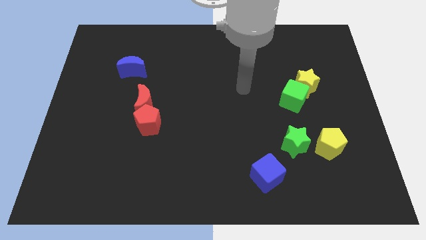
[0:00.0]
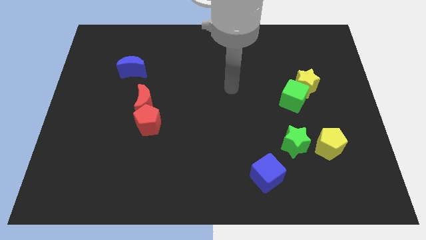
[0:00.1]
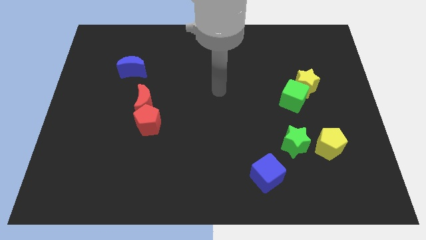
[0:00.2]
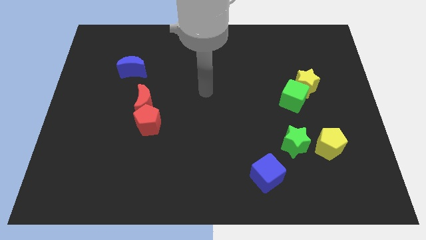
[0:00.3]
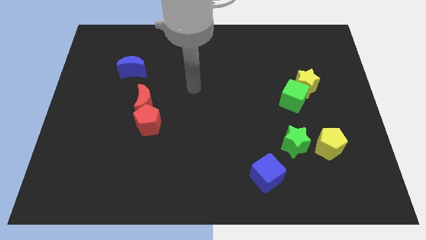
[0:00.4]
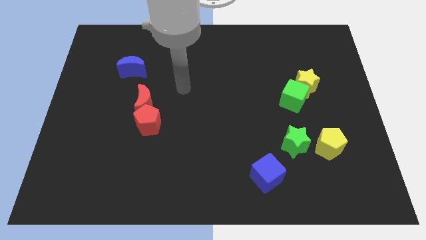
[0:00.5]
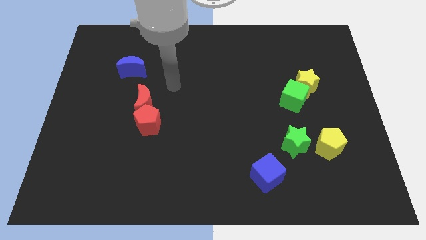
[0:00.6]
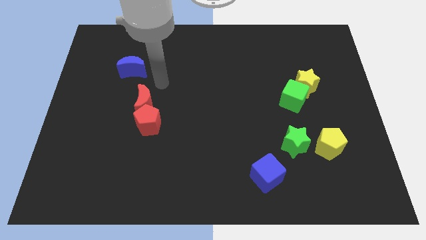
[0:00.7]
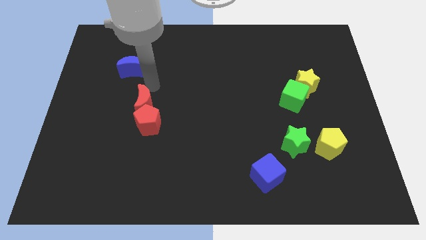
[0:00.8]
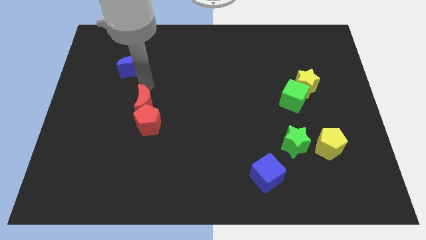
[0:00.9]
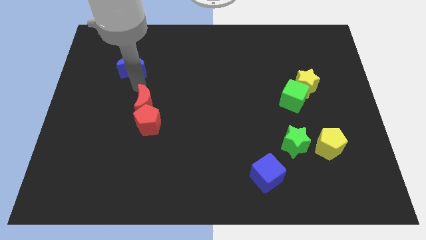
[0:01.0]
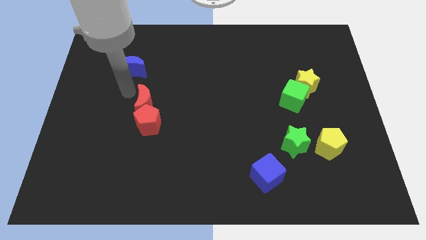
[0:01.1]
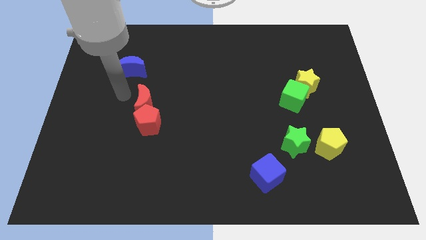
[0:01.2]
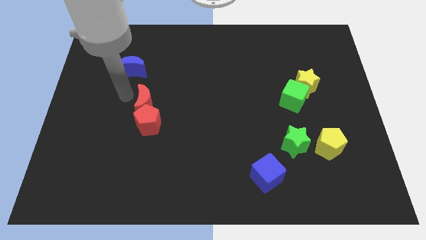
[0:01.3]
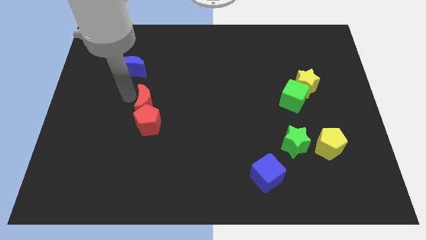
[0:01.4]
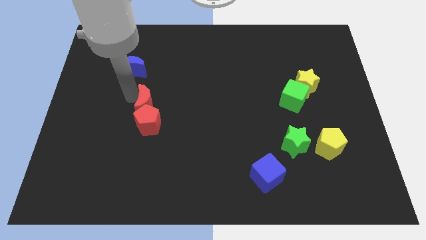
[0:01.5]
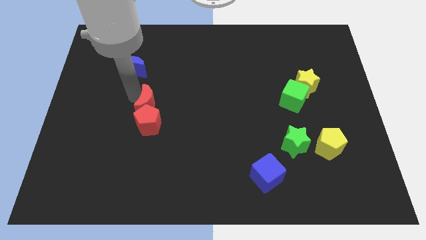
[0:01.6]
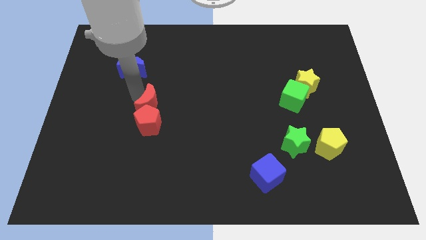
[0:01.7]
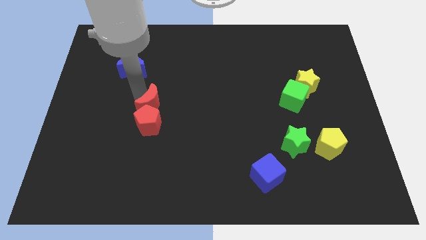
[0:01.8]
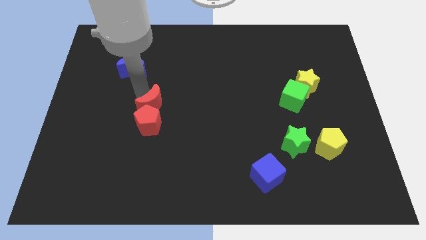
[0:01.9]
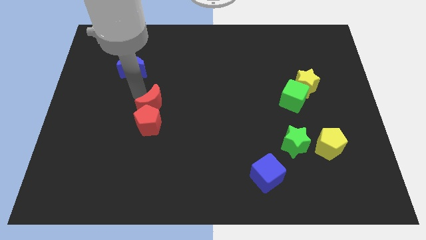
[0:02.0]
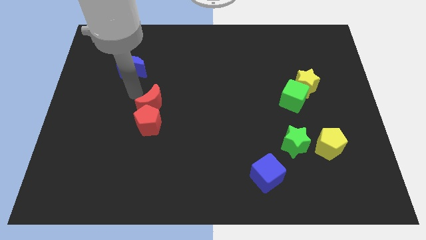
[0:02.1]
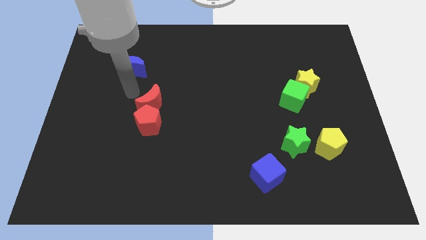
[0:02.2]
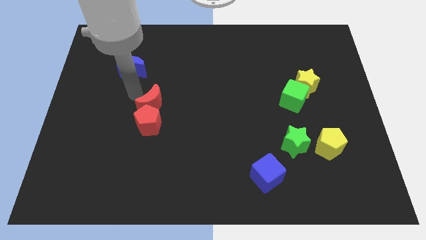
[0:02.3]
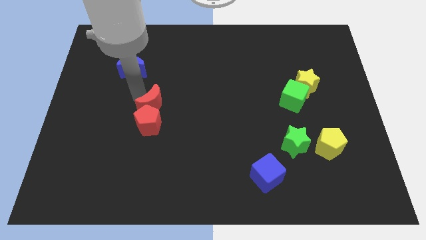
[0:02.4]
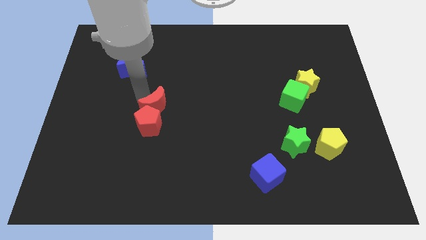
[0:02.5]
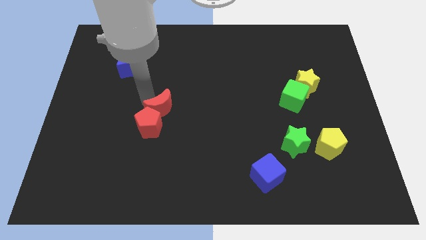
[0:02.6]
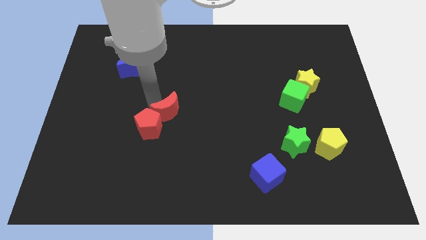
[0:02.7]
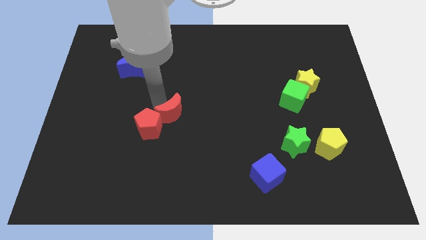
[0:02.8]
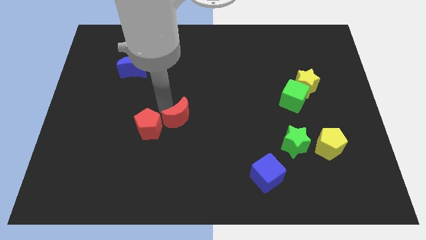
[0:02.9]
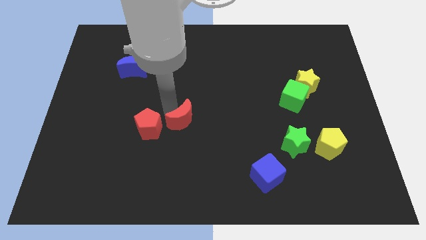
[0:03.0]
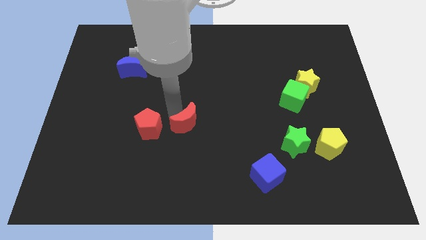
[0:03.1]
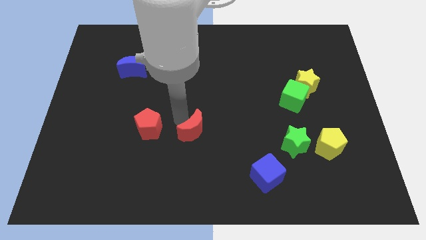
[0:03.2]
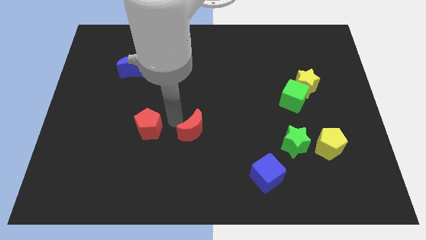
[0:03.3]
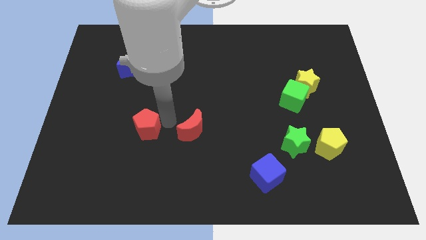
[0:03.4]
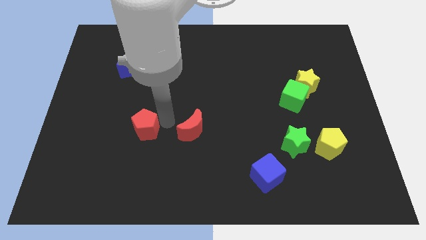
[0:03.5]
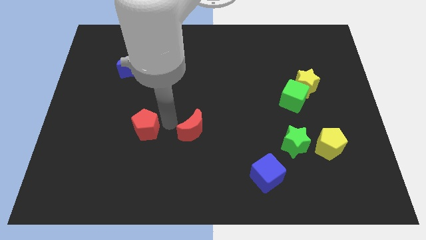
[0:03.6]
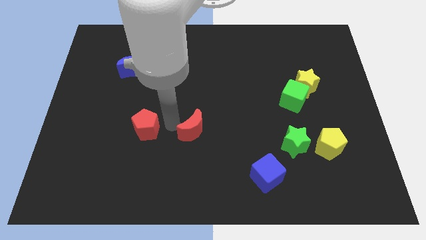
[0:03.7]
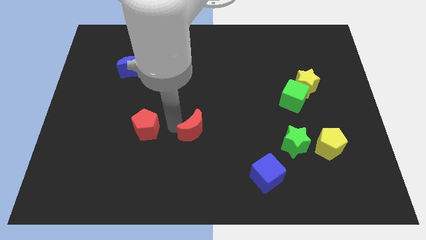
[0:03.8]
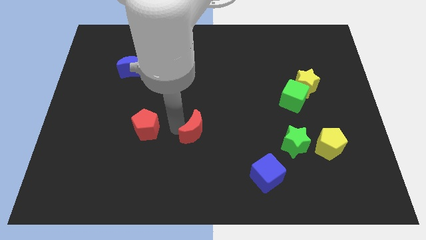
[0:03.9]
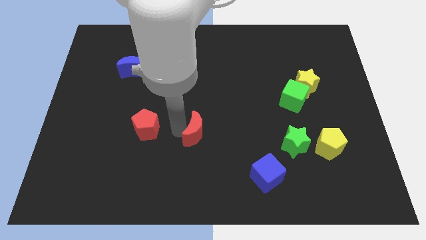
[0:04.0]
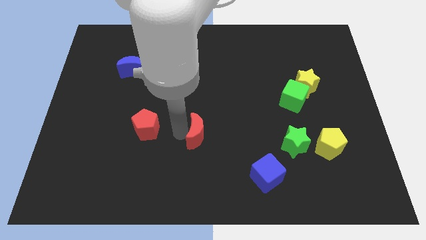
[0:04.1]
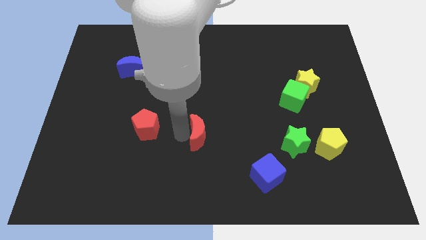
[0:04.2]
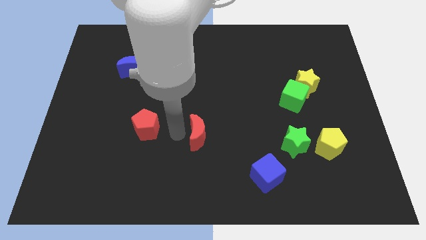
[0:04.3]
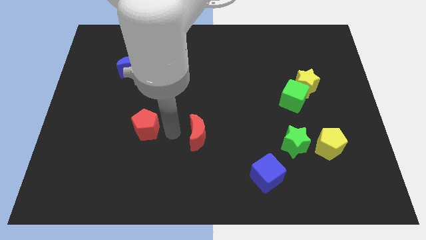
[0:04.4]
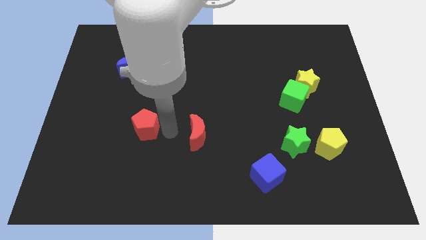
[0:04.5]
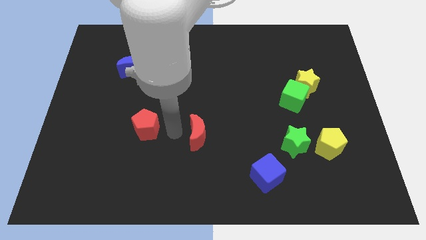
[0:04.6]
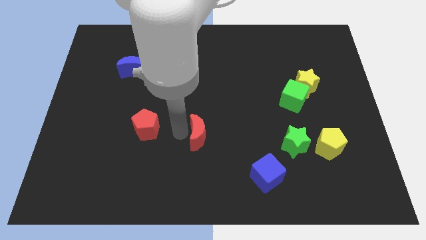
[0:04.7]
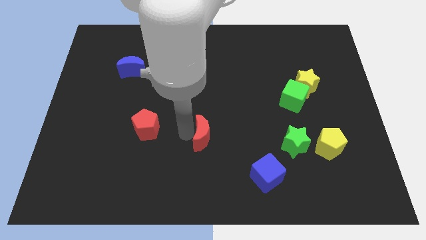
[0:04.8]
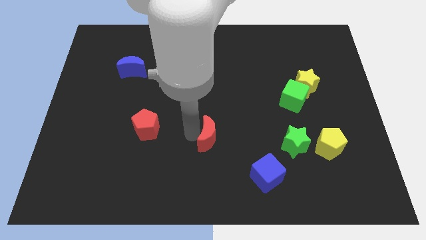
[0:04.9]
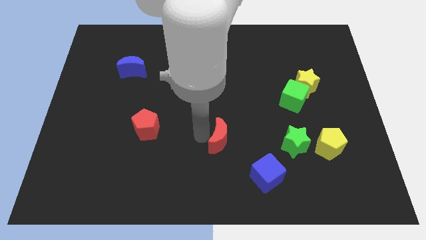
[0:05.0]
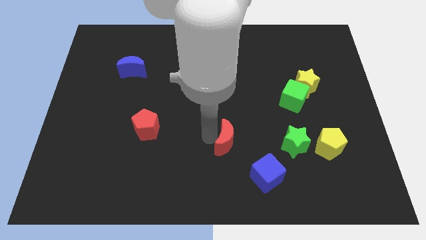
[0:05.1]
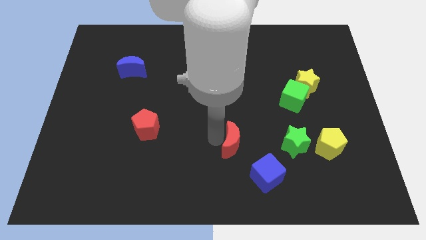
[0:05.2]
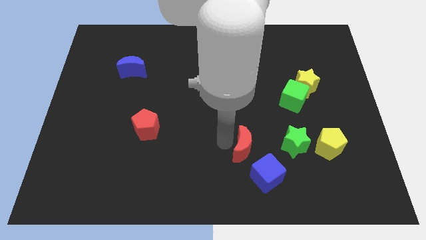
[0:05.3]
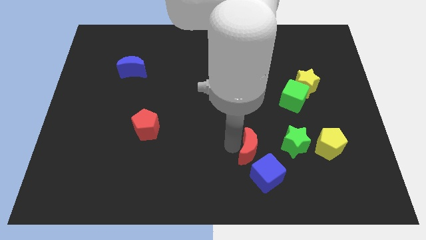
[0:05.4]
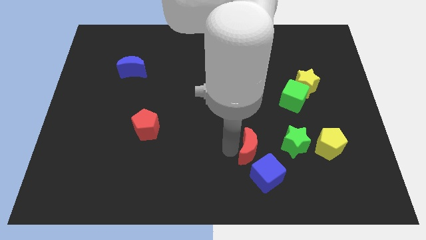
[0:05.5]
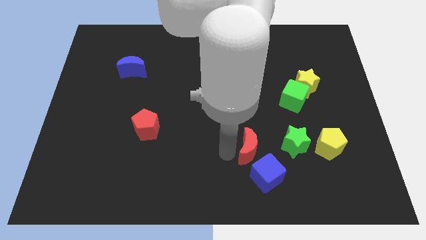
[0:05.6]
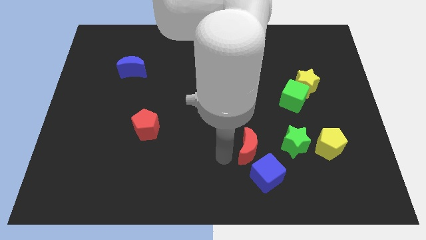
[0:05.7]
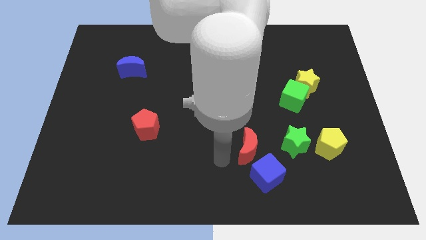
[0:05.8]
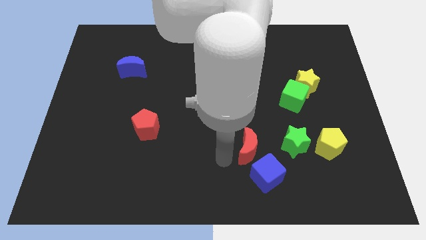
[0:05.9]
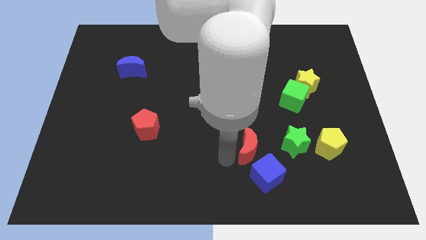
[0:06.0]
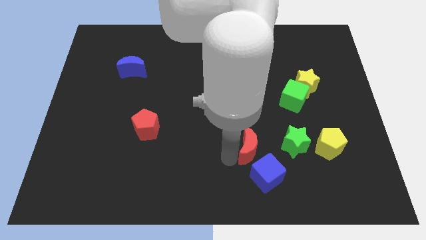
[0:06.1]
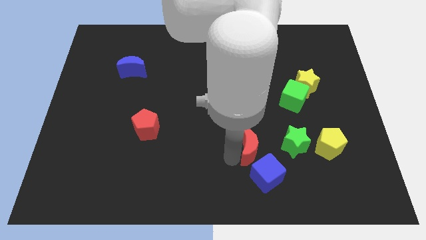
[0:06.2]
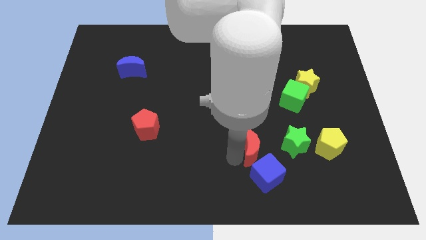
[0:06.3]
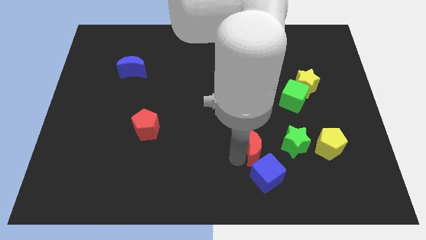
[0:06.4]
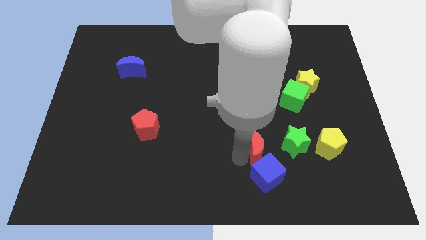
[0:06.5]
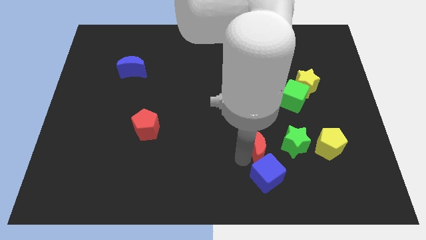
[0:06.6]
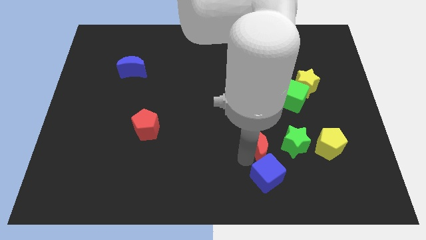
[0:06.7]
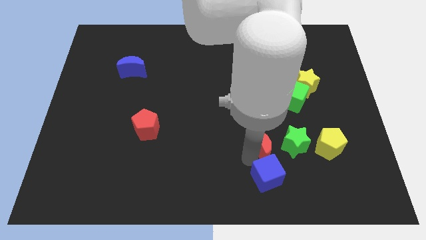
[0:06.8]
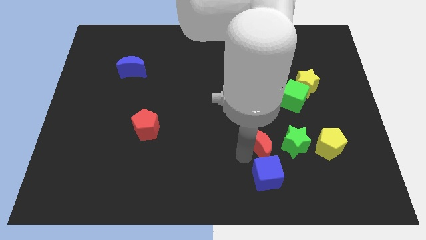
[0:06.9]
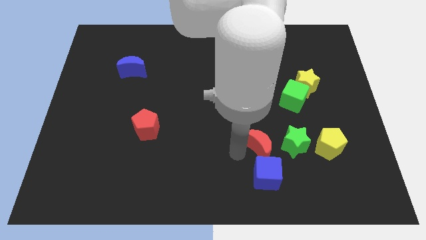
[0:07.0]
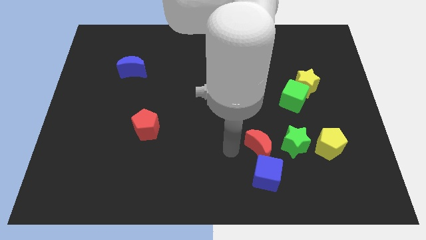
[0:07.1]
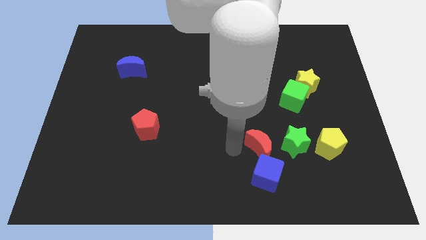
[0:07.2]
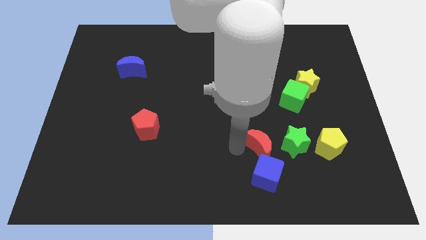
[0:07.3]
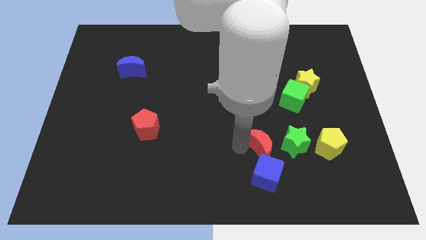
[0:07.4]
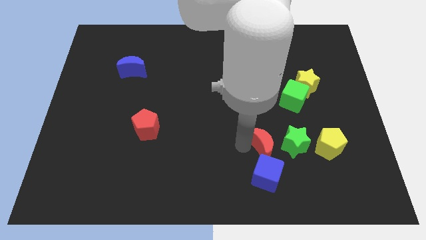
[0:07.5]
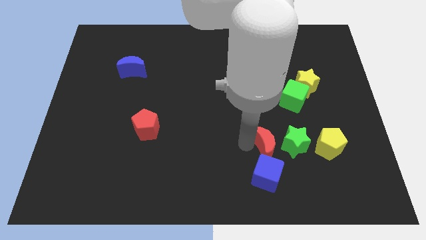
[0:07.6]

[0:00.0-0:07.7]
put the red moon to the green star
